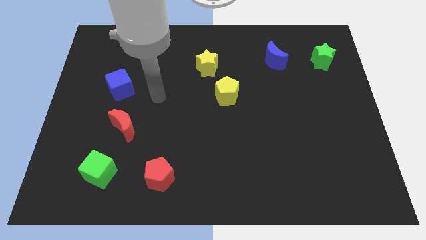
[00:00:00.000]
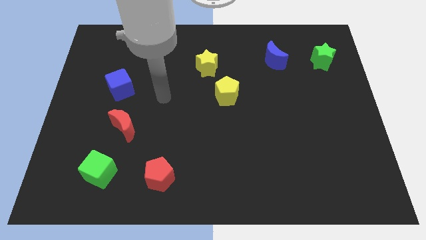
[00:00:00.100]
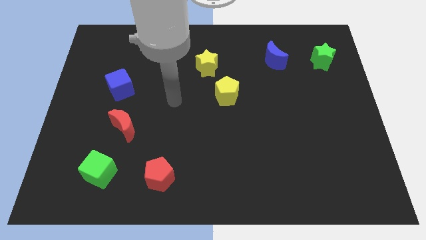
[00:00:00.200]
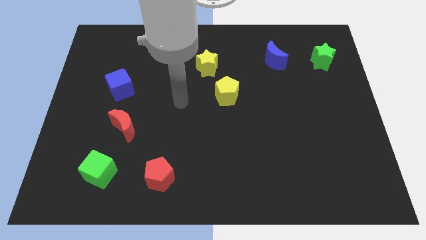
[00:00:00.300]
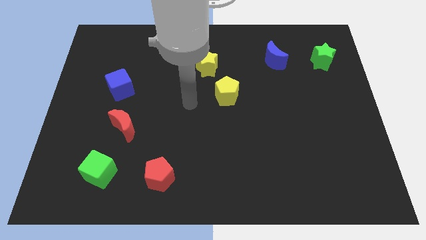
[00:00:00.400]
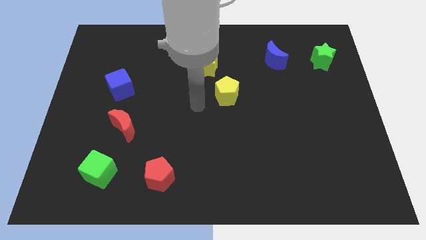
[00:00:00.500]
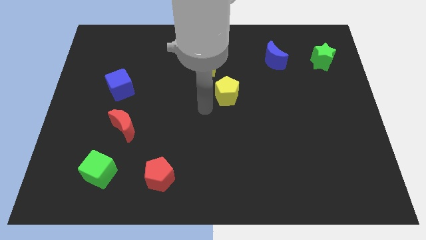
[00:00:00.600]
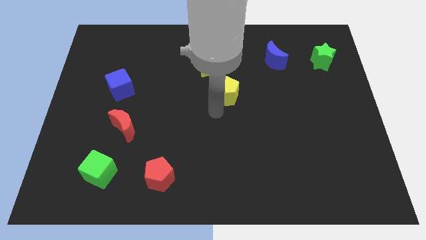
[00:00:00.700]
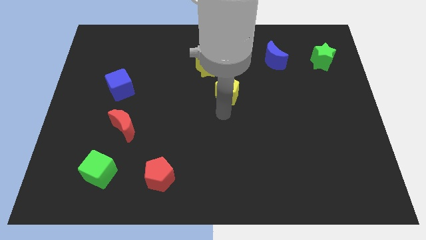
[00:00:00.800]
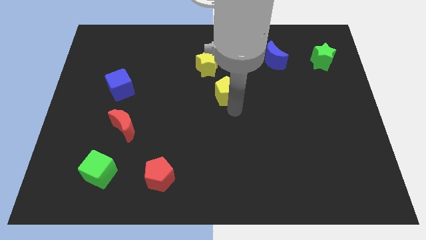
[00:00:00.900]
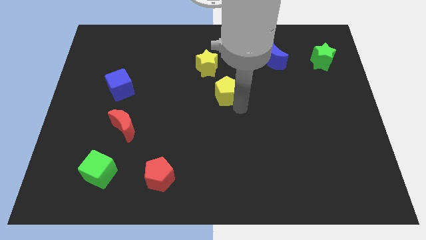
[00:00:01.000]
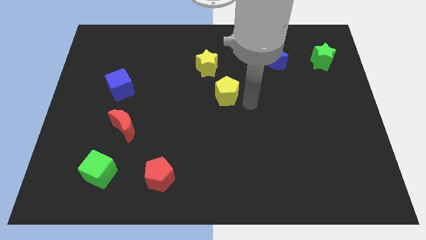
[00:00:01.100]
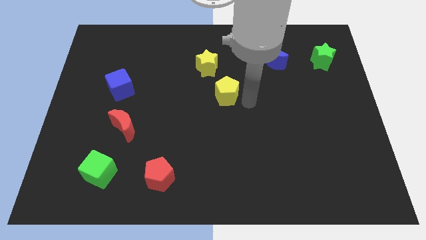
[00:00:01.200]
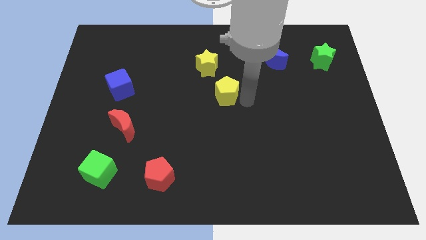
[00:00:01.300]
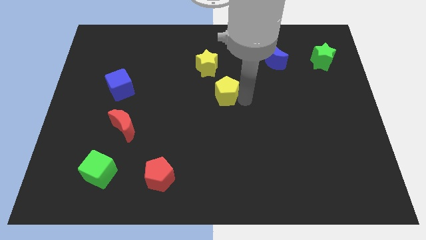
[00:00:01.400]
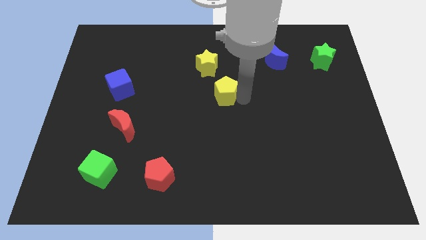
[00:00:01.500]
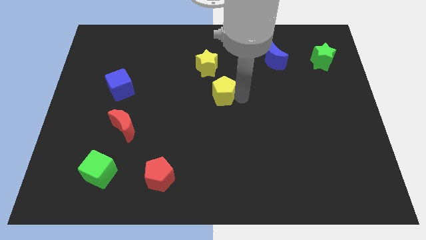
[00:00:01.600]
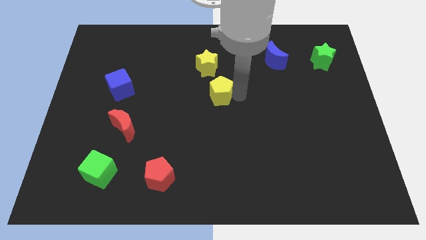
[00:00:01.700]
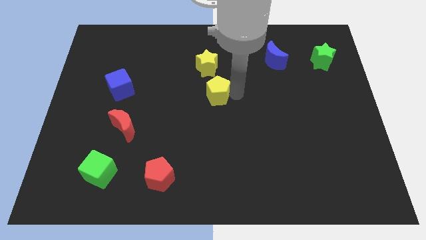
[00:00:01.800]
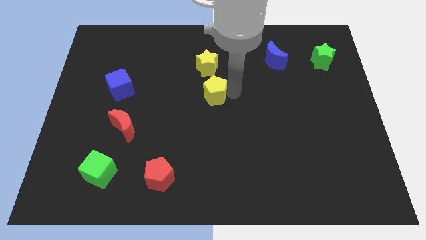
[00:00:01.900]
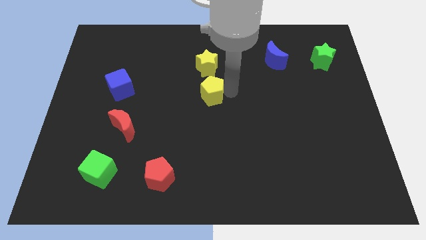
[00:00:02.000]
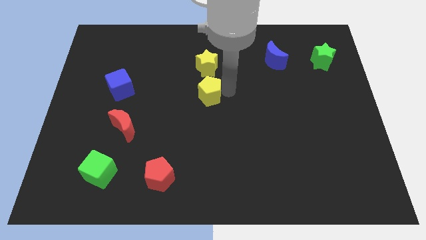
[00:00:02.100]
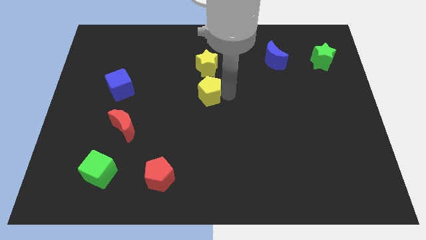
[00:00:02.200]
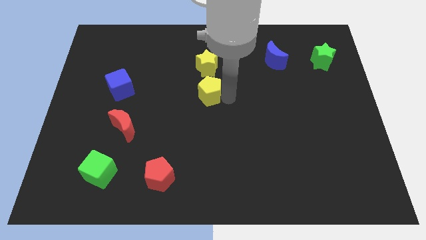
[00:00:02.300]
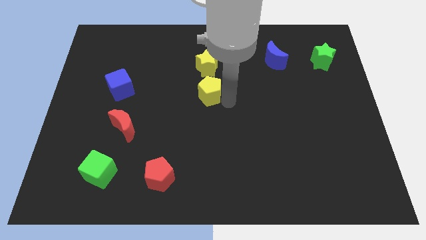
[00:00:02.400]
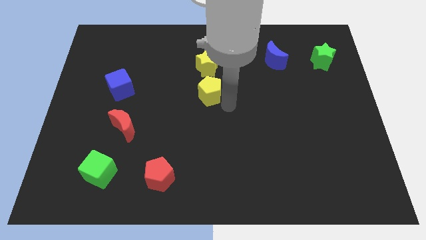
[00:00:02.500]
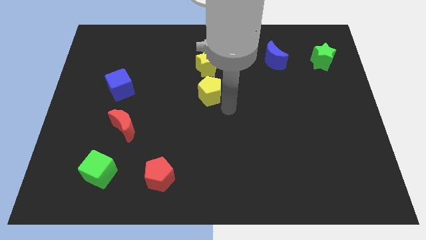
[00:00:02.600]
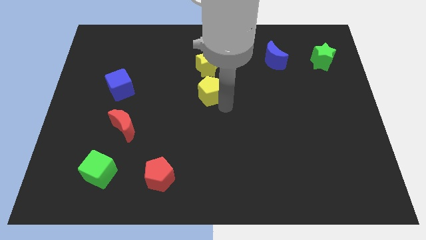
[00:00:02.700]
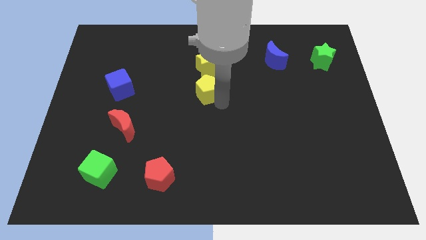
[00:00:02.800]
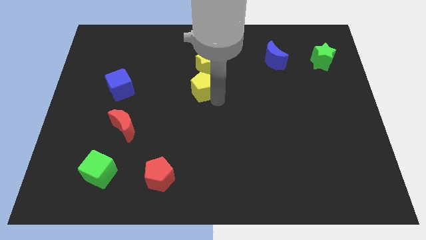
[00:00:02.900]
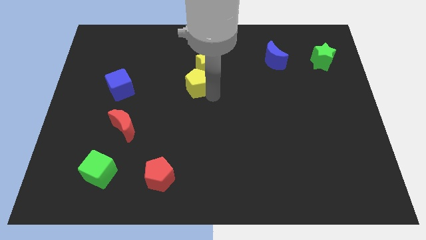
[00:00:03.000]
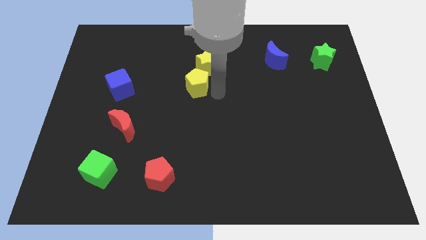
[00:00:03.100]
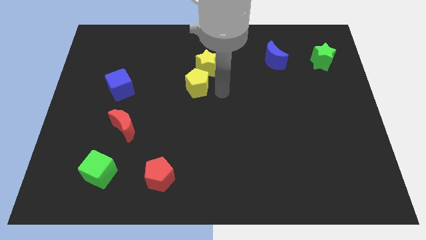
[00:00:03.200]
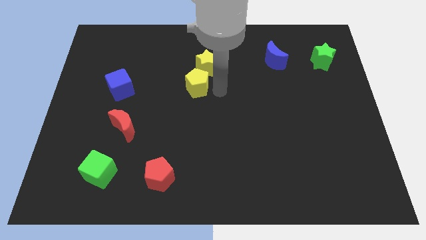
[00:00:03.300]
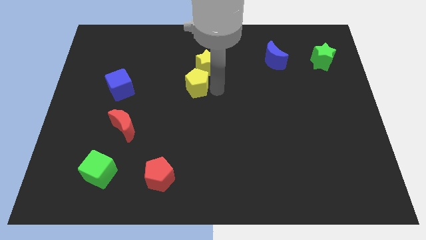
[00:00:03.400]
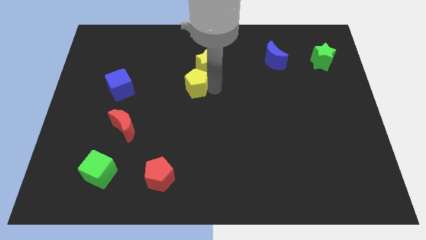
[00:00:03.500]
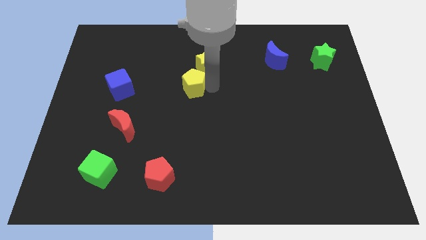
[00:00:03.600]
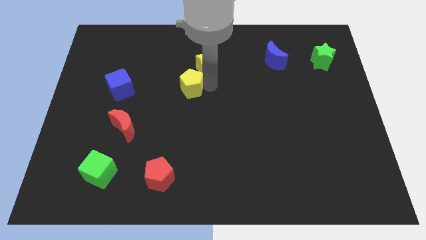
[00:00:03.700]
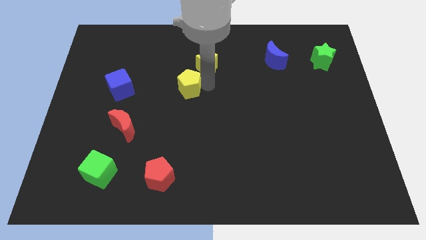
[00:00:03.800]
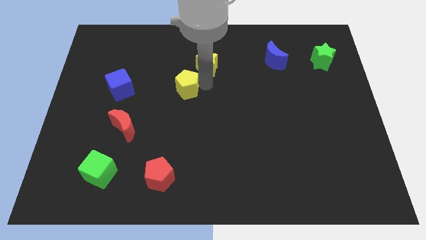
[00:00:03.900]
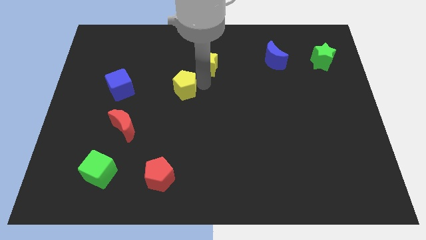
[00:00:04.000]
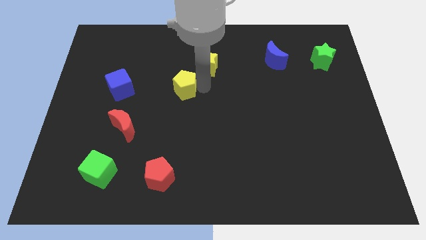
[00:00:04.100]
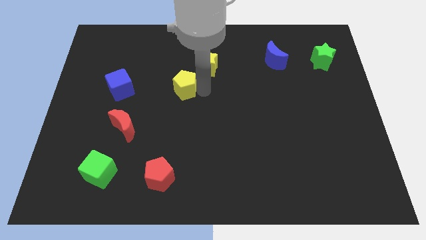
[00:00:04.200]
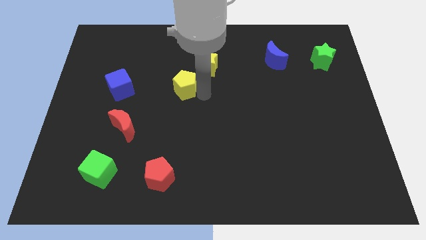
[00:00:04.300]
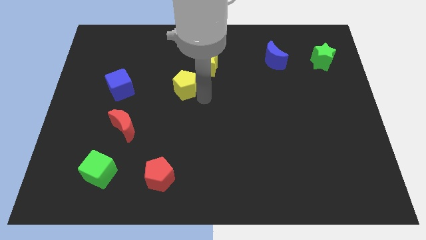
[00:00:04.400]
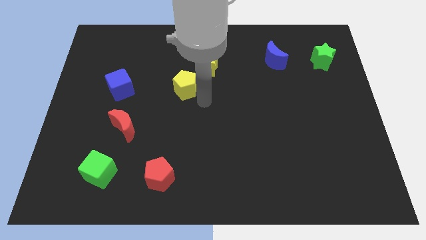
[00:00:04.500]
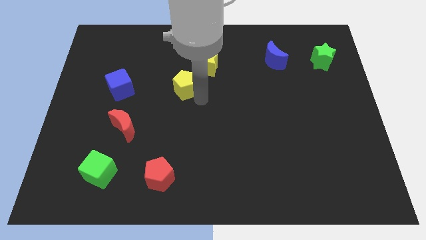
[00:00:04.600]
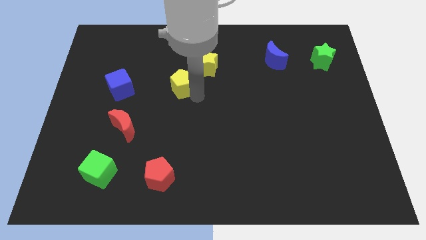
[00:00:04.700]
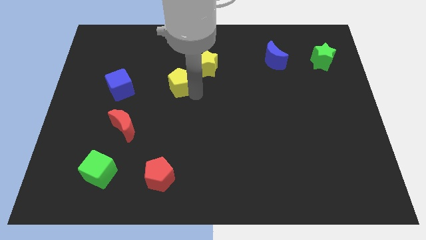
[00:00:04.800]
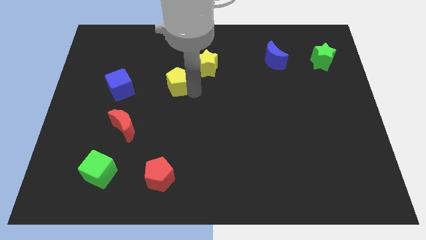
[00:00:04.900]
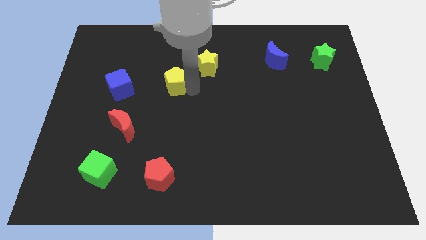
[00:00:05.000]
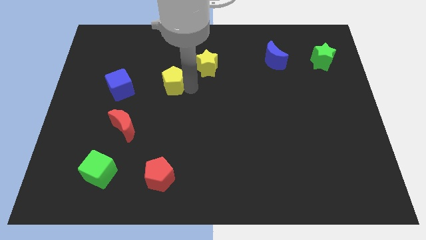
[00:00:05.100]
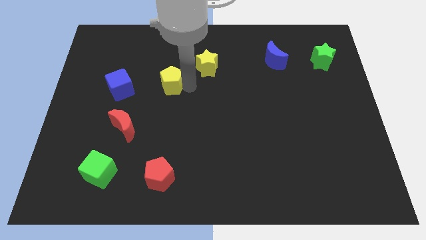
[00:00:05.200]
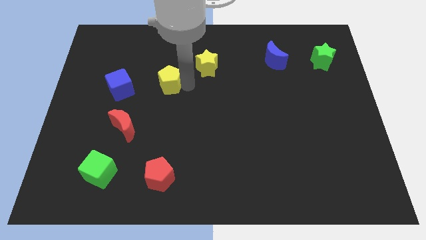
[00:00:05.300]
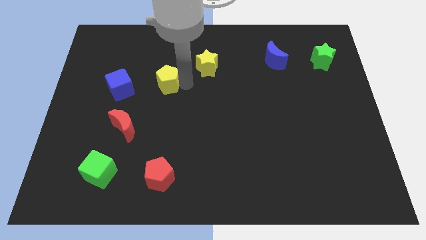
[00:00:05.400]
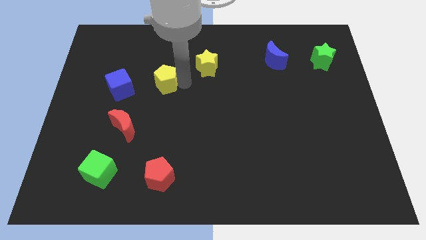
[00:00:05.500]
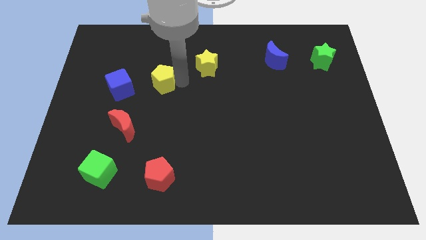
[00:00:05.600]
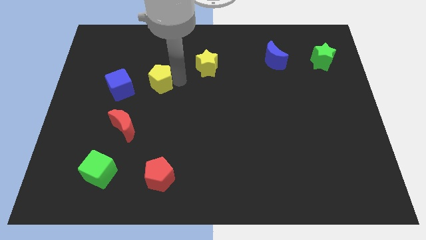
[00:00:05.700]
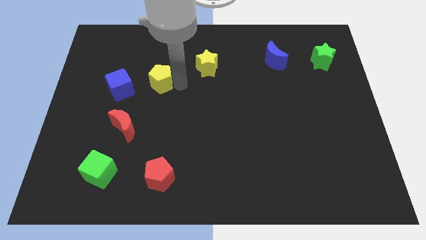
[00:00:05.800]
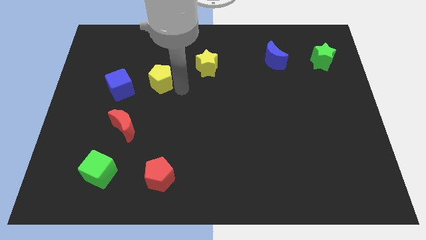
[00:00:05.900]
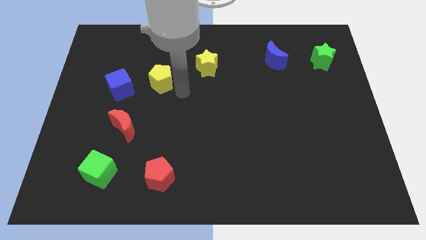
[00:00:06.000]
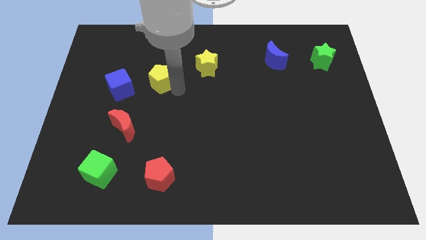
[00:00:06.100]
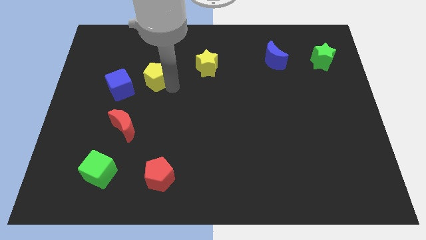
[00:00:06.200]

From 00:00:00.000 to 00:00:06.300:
push the yellow pentagon to the top right side of the blue cube
